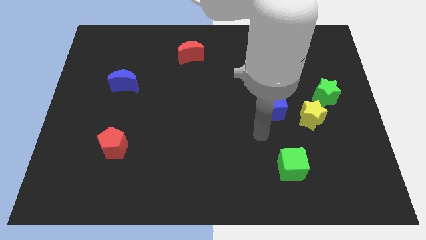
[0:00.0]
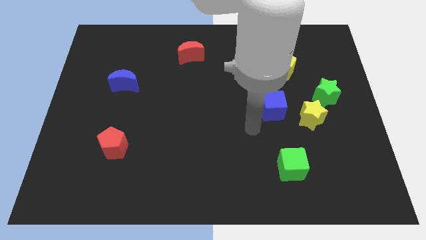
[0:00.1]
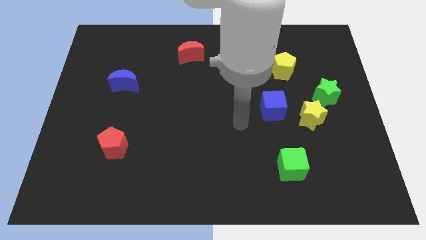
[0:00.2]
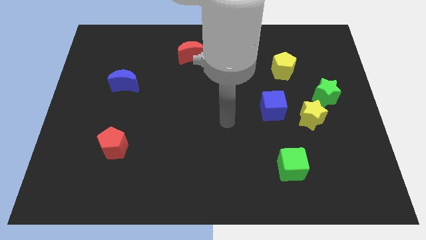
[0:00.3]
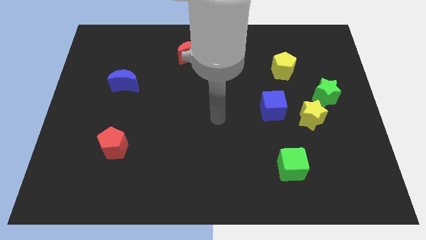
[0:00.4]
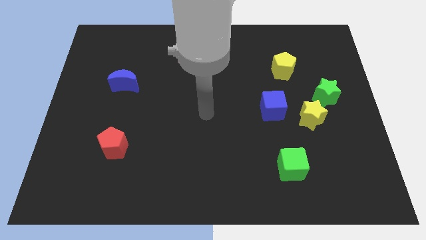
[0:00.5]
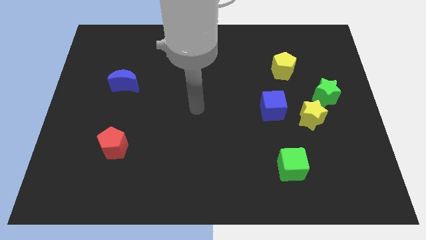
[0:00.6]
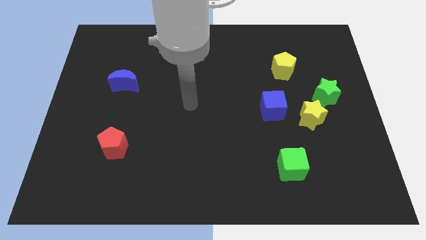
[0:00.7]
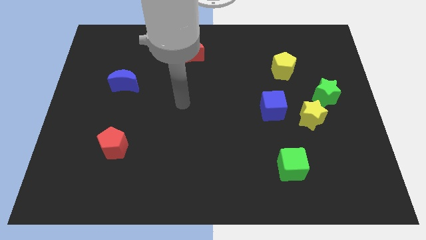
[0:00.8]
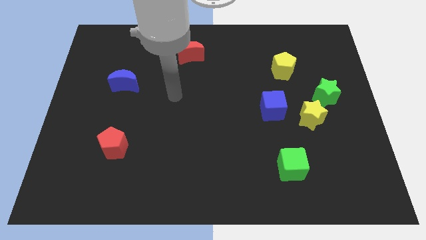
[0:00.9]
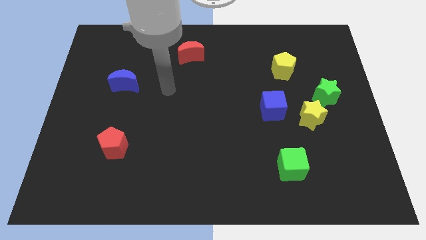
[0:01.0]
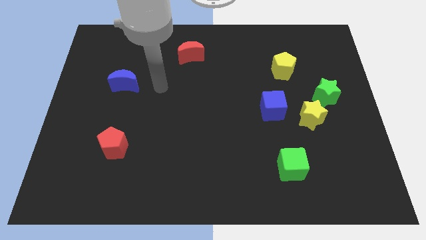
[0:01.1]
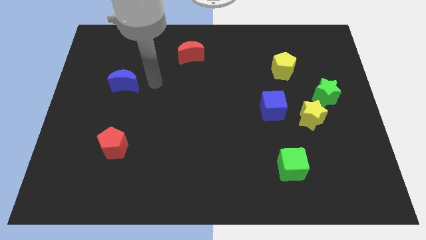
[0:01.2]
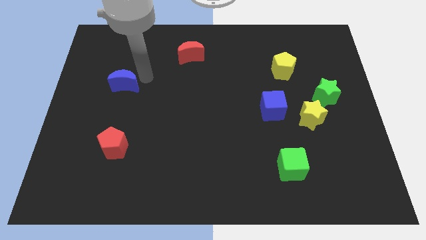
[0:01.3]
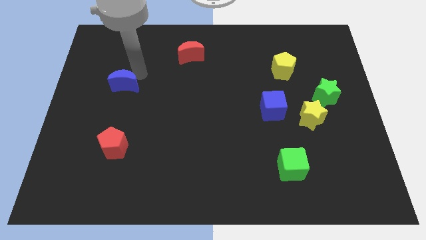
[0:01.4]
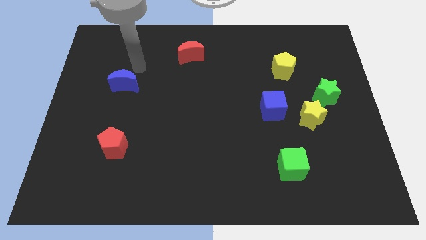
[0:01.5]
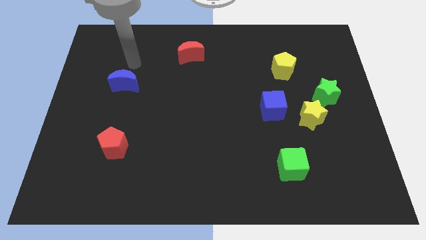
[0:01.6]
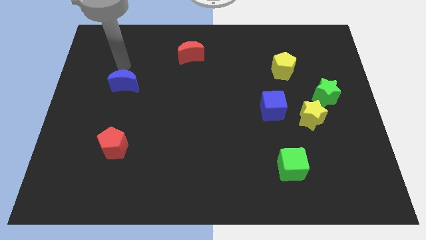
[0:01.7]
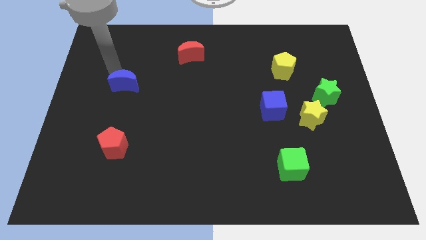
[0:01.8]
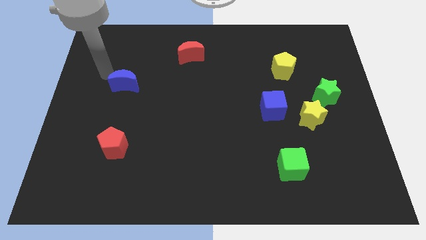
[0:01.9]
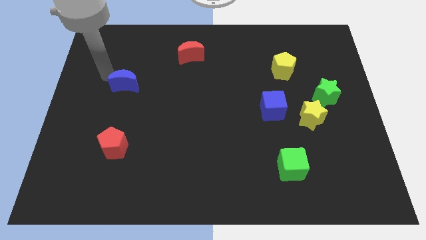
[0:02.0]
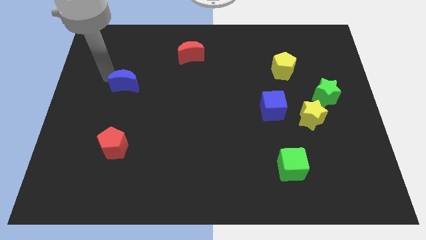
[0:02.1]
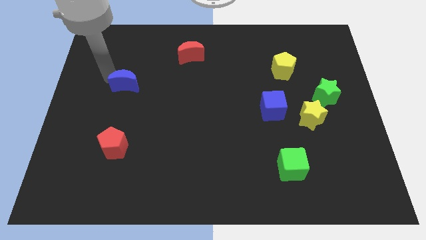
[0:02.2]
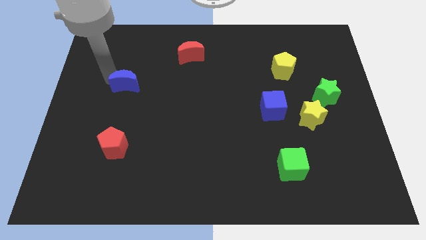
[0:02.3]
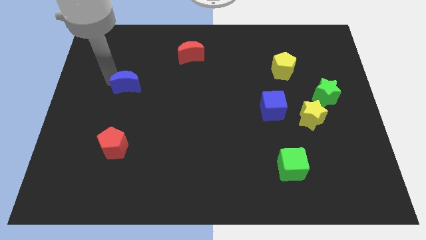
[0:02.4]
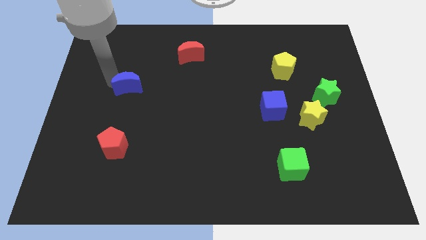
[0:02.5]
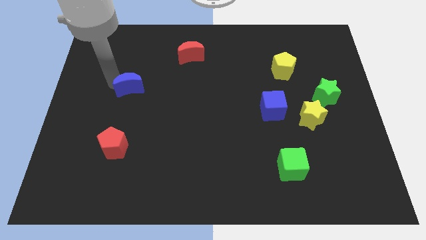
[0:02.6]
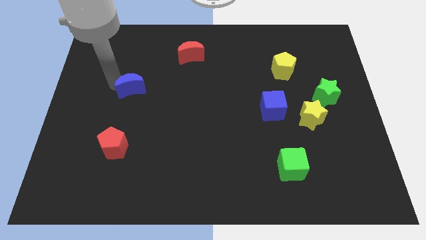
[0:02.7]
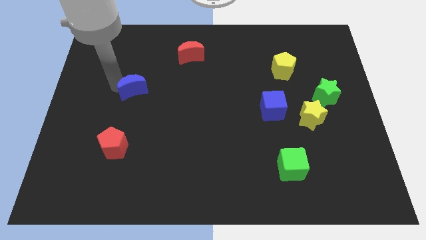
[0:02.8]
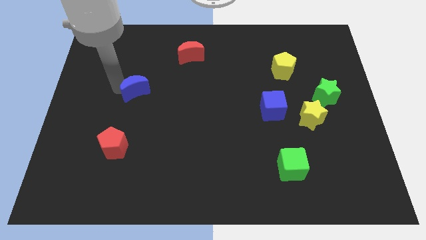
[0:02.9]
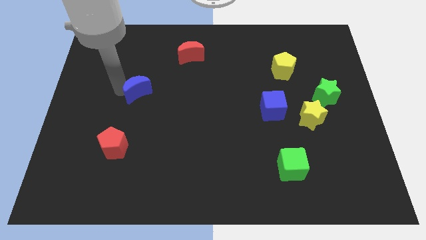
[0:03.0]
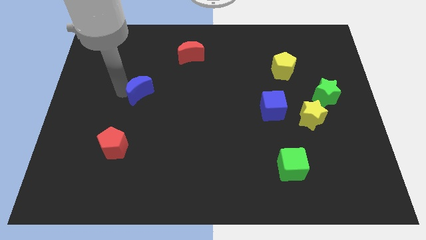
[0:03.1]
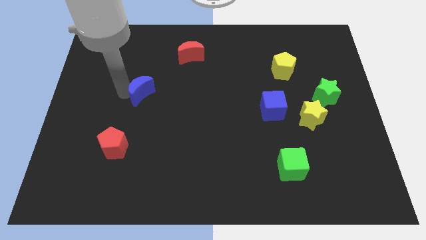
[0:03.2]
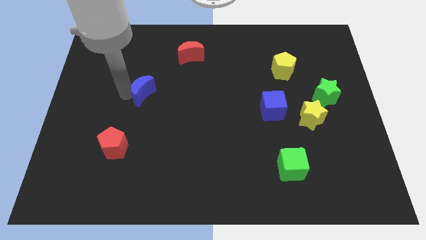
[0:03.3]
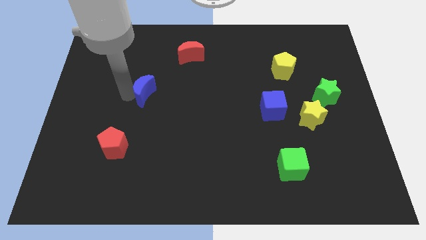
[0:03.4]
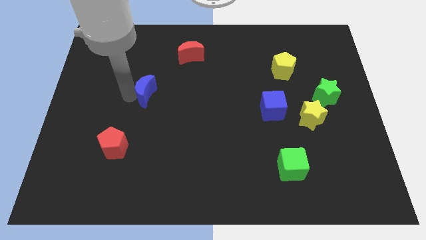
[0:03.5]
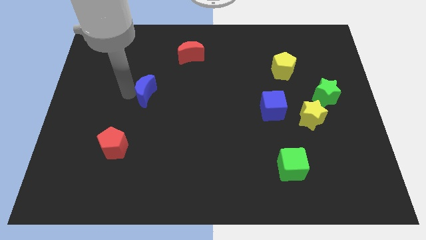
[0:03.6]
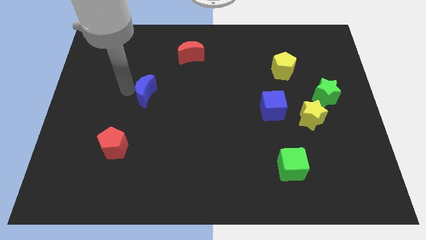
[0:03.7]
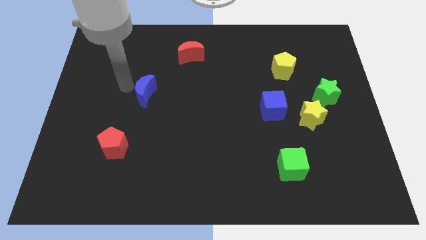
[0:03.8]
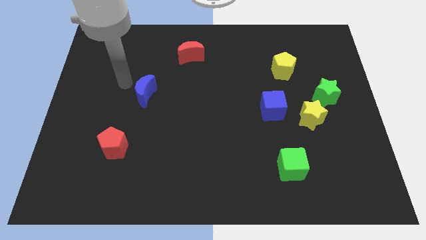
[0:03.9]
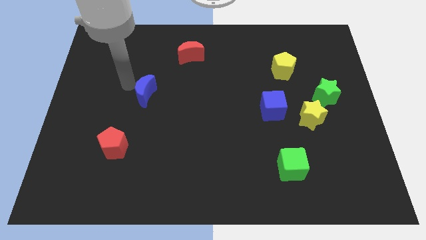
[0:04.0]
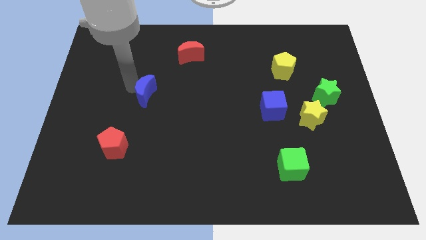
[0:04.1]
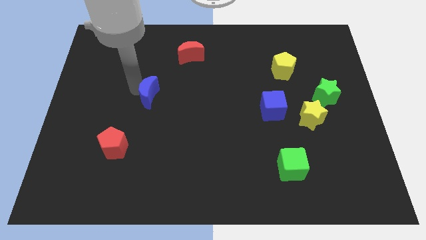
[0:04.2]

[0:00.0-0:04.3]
slightly move the blue moon diagonally downwards and to the right

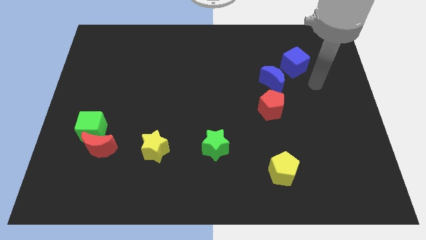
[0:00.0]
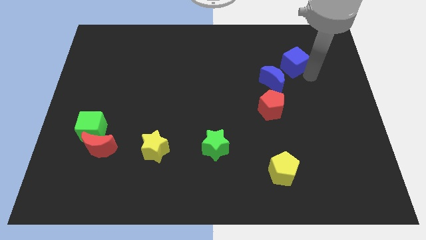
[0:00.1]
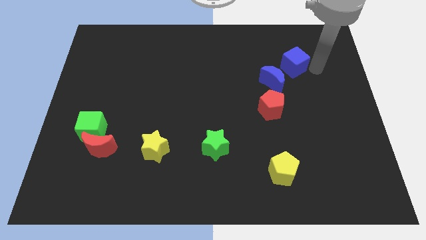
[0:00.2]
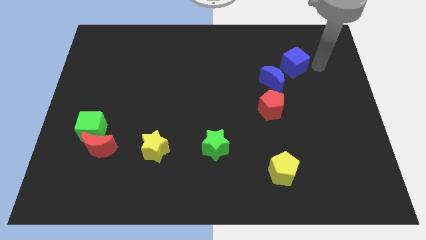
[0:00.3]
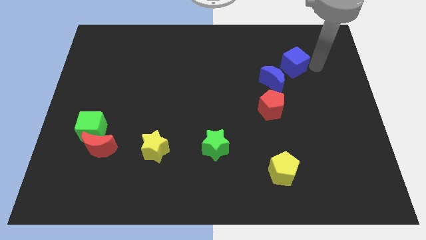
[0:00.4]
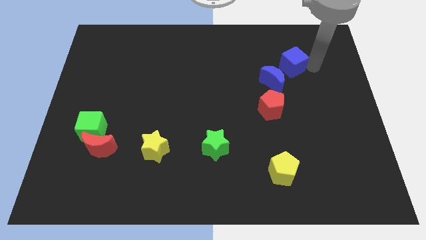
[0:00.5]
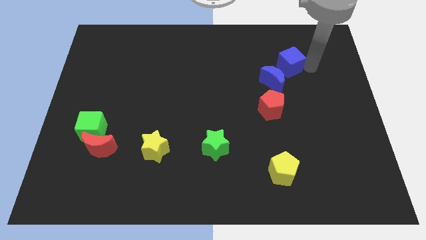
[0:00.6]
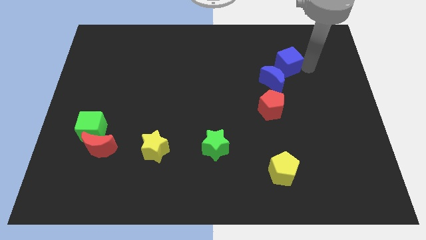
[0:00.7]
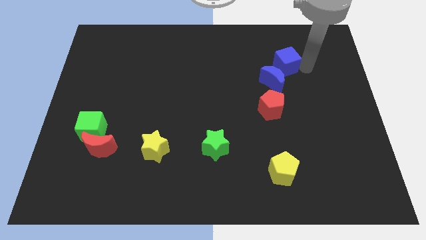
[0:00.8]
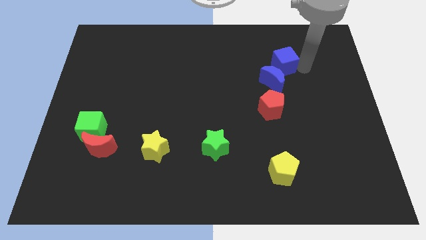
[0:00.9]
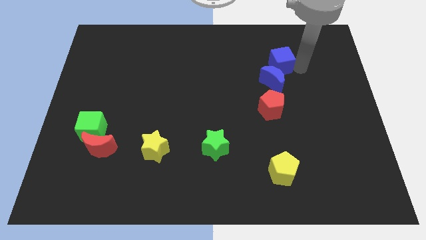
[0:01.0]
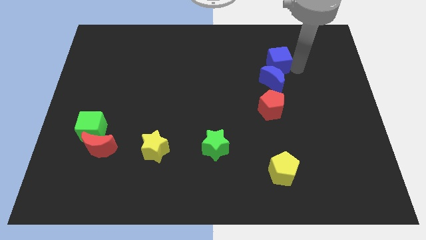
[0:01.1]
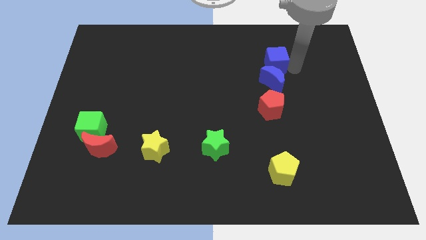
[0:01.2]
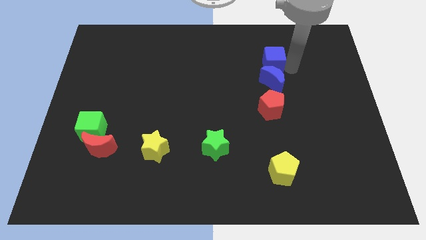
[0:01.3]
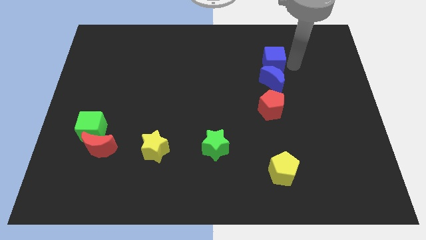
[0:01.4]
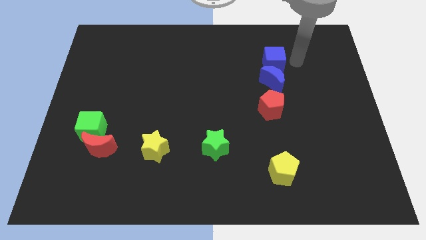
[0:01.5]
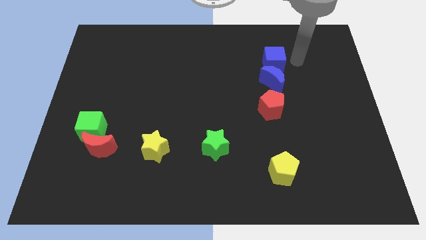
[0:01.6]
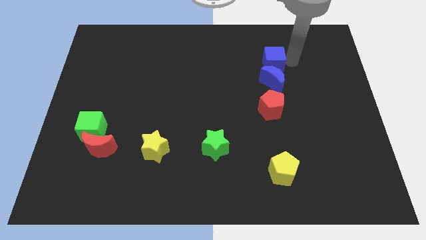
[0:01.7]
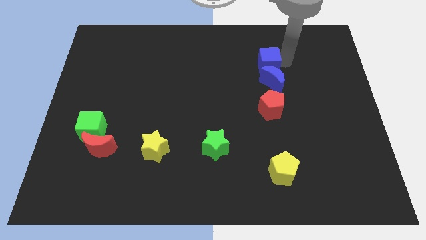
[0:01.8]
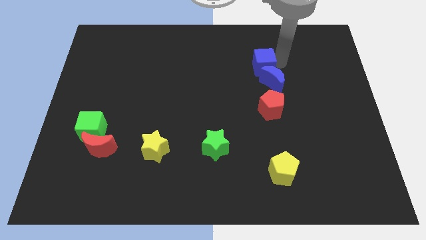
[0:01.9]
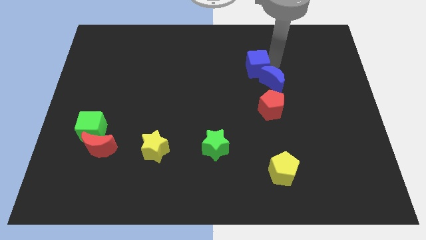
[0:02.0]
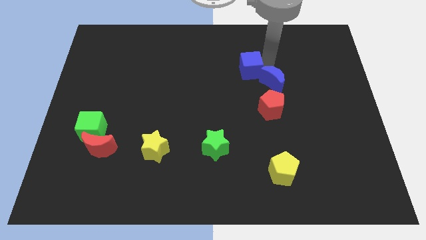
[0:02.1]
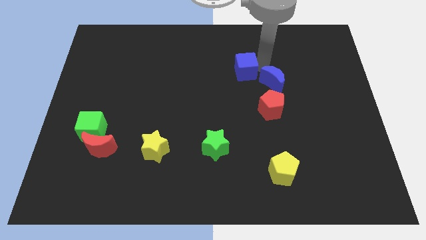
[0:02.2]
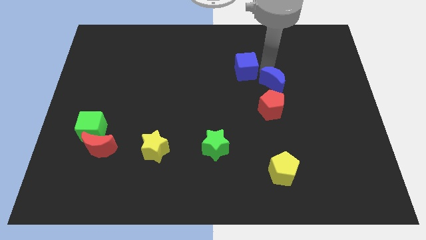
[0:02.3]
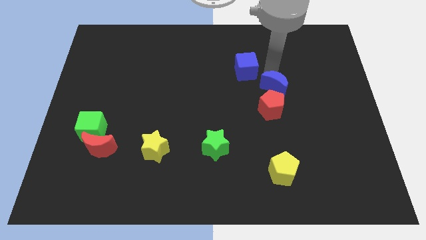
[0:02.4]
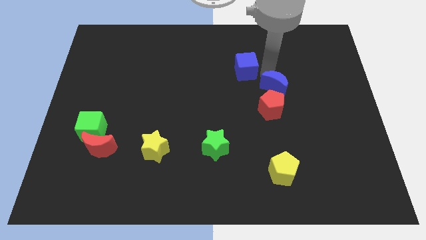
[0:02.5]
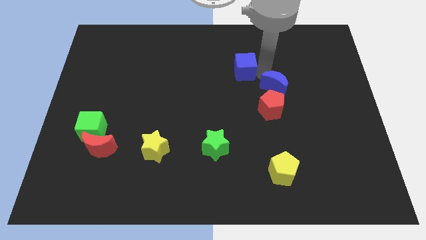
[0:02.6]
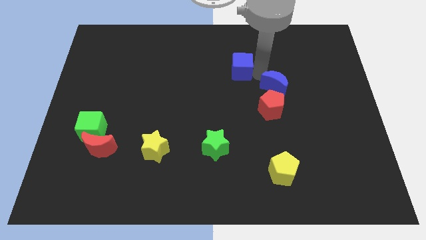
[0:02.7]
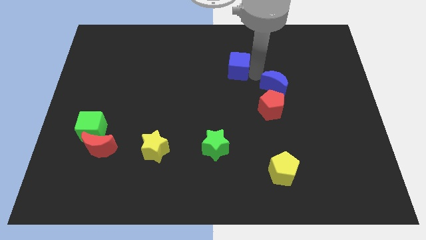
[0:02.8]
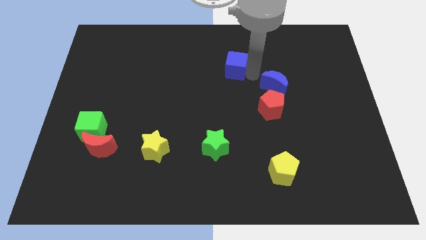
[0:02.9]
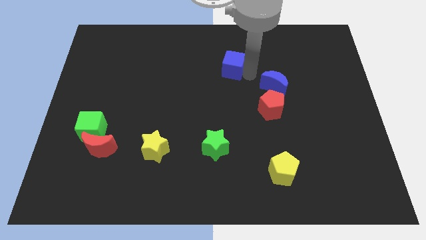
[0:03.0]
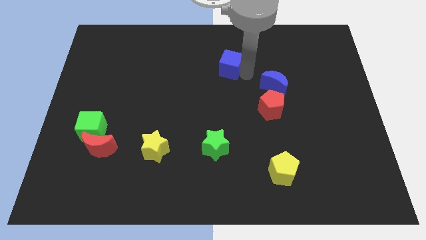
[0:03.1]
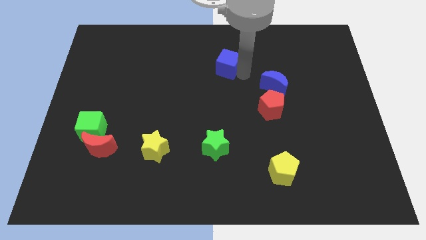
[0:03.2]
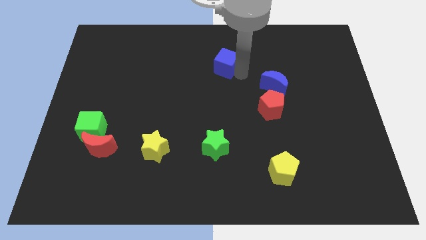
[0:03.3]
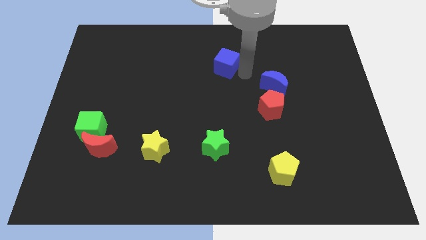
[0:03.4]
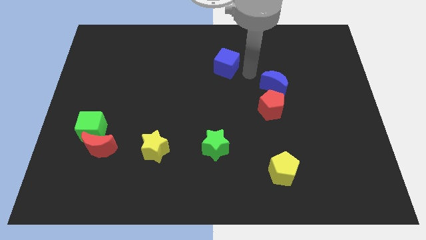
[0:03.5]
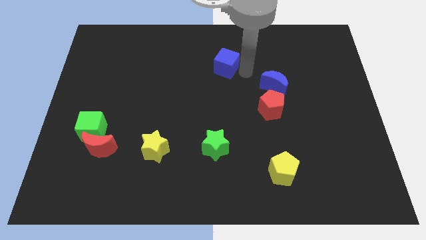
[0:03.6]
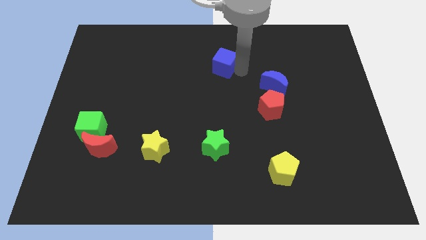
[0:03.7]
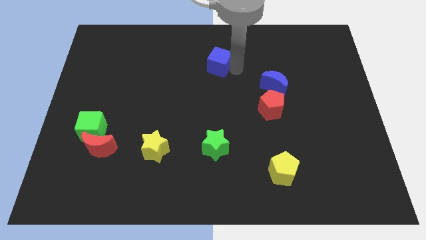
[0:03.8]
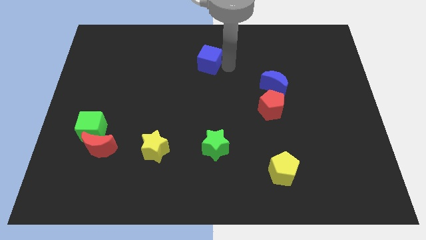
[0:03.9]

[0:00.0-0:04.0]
push the blue cube left
